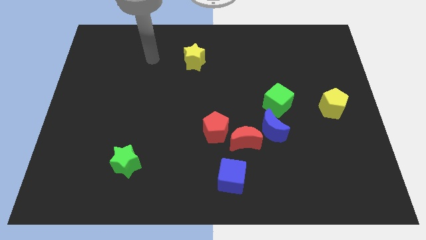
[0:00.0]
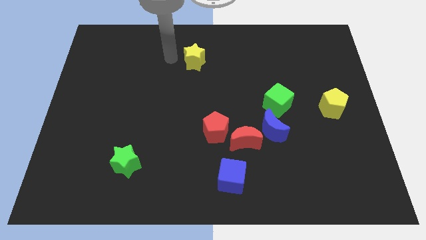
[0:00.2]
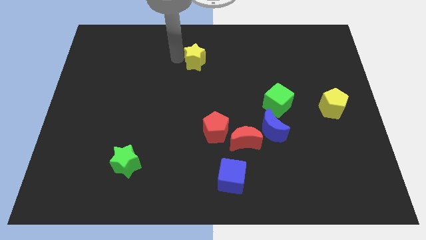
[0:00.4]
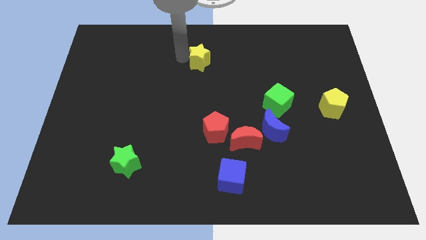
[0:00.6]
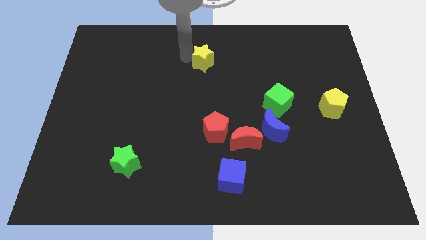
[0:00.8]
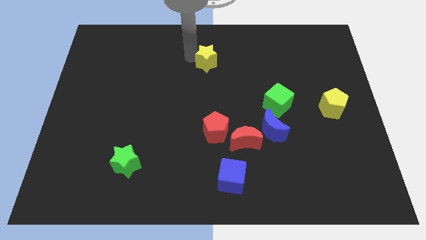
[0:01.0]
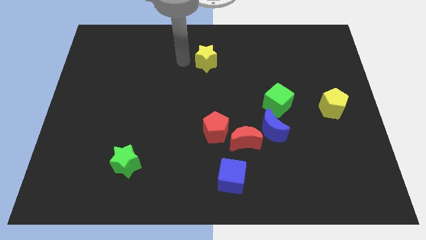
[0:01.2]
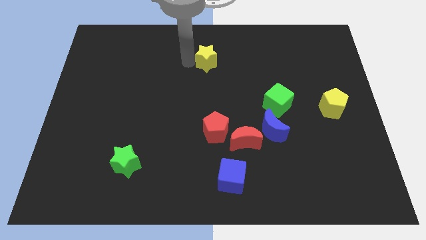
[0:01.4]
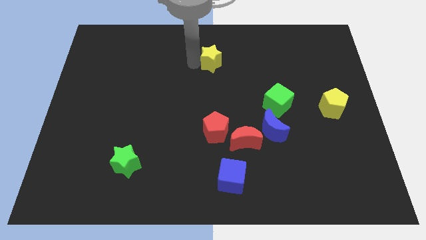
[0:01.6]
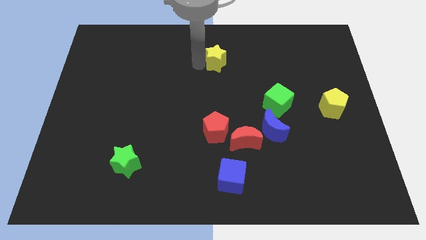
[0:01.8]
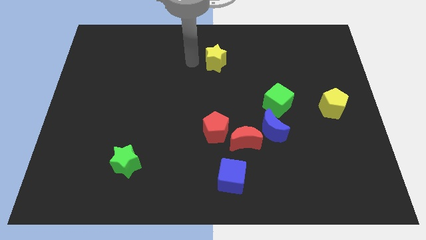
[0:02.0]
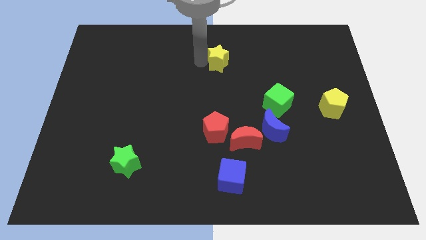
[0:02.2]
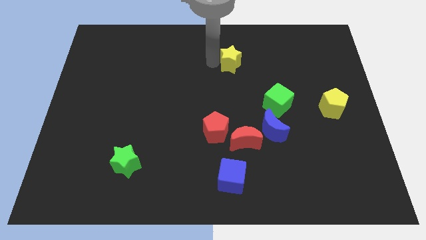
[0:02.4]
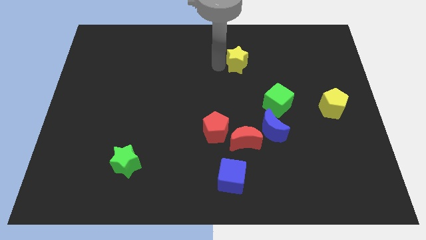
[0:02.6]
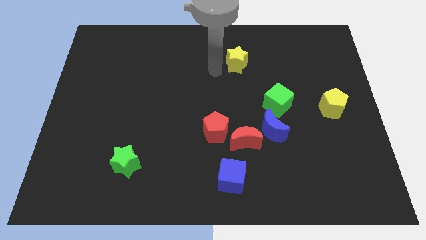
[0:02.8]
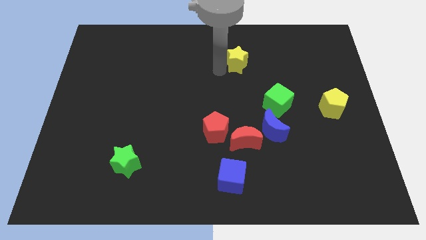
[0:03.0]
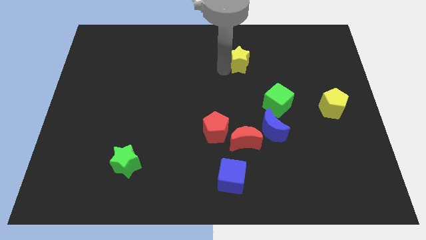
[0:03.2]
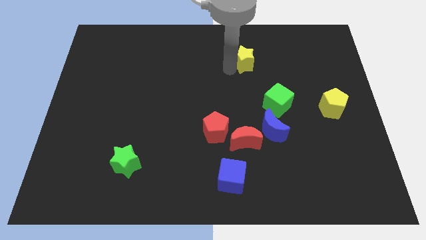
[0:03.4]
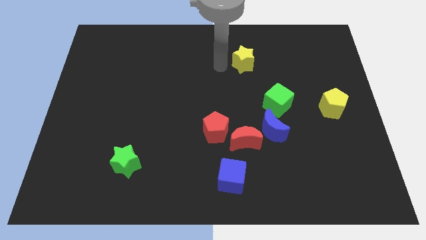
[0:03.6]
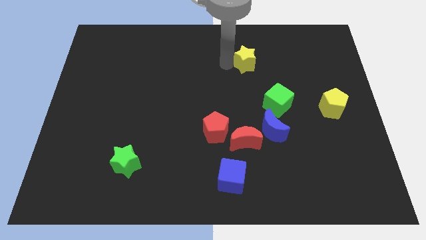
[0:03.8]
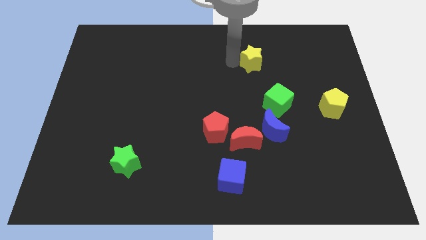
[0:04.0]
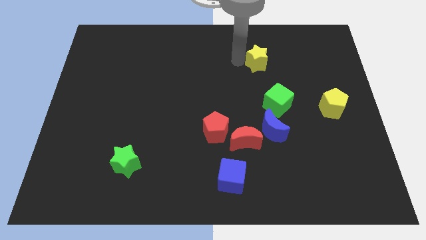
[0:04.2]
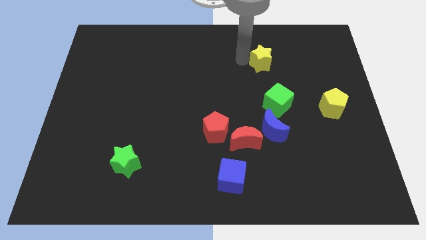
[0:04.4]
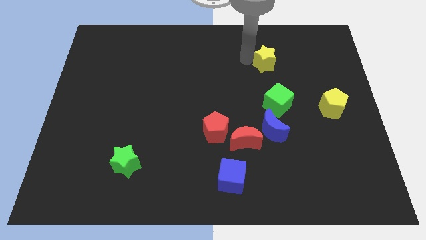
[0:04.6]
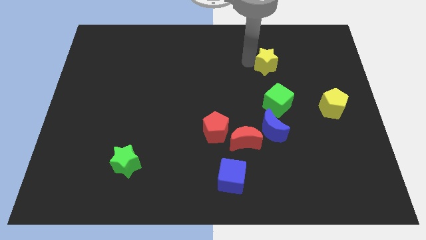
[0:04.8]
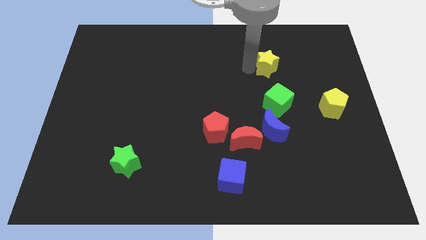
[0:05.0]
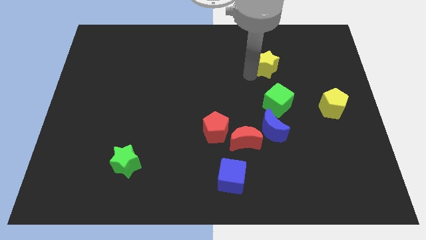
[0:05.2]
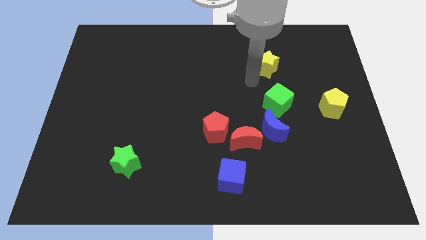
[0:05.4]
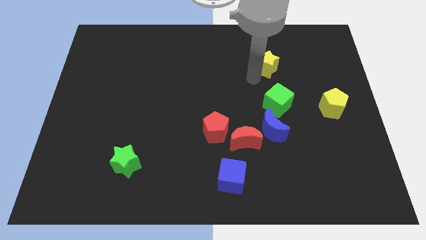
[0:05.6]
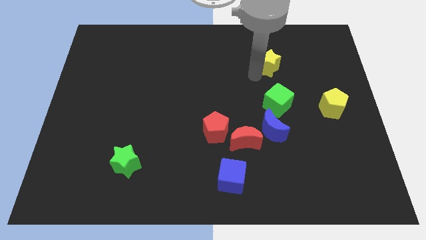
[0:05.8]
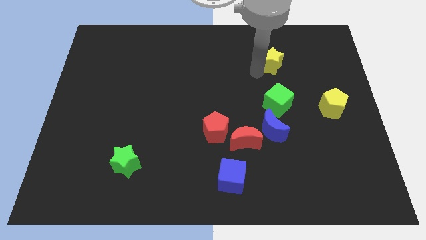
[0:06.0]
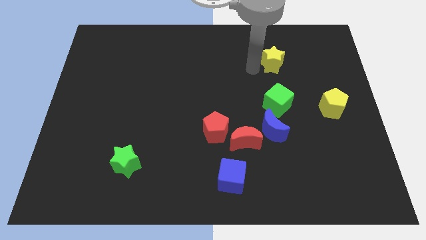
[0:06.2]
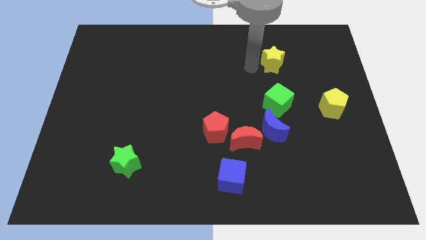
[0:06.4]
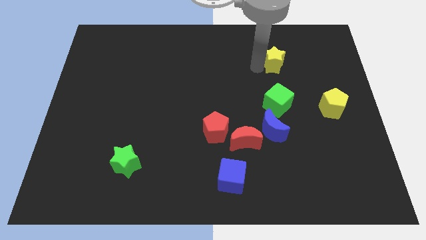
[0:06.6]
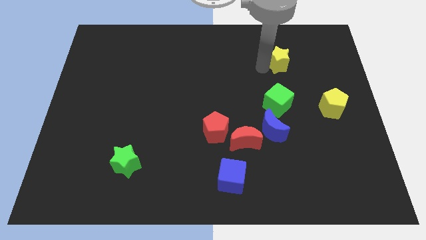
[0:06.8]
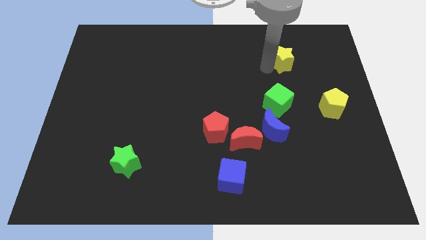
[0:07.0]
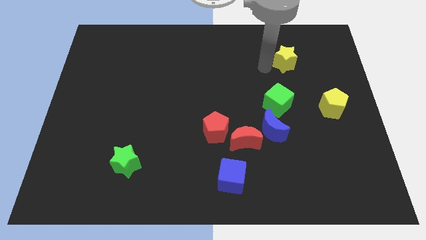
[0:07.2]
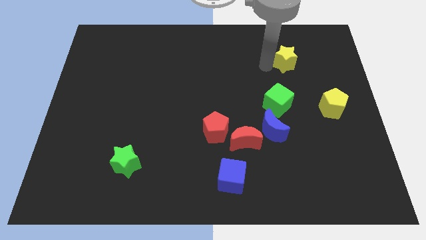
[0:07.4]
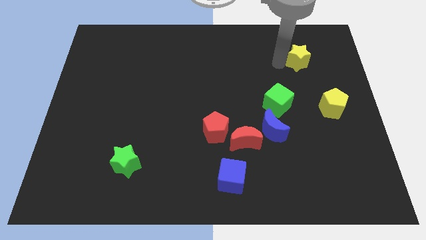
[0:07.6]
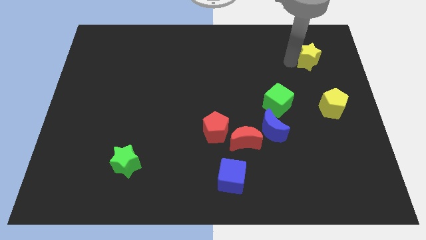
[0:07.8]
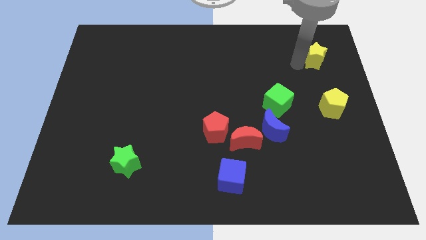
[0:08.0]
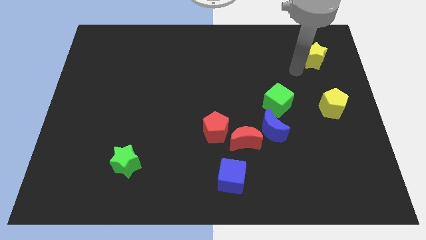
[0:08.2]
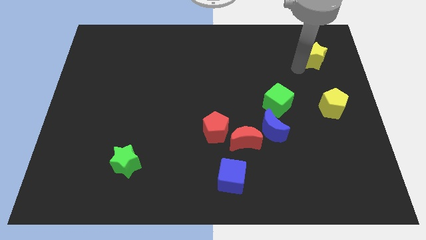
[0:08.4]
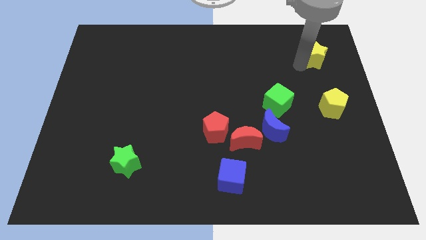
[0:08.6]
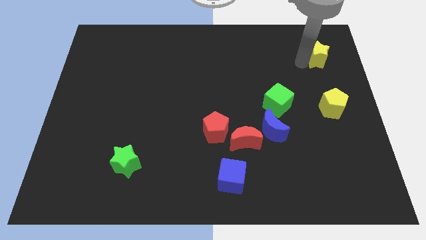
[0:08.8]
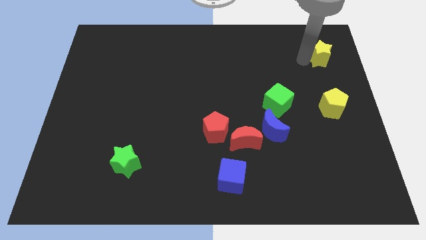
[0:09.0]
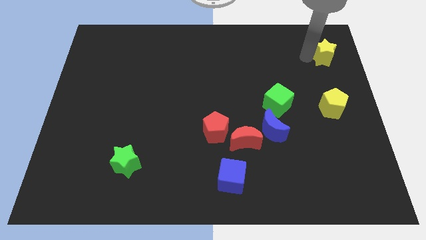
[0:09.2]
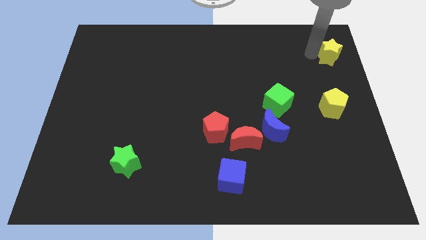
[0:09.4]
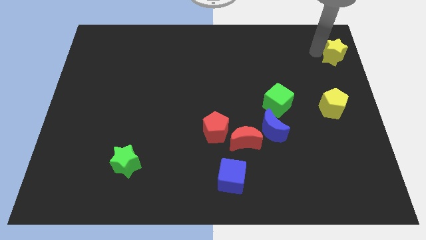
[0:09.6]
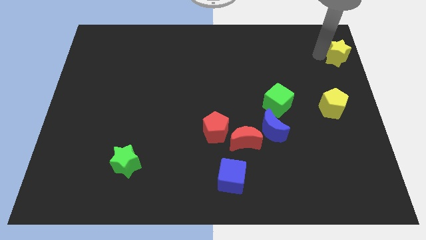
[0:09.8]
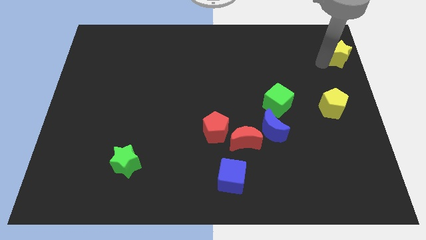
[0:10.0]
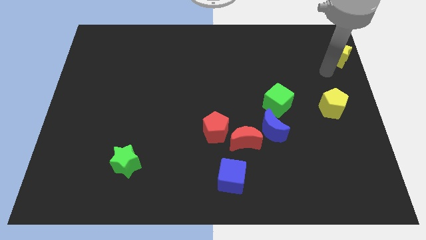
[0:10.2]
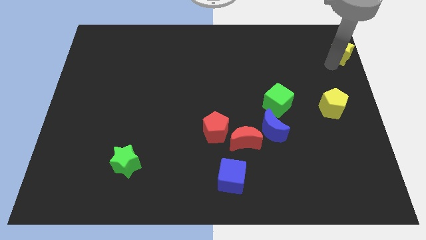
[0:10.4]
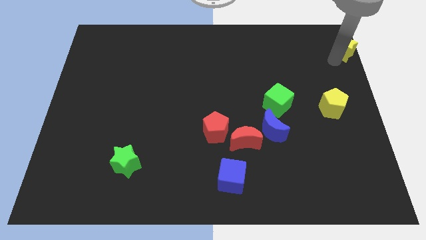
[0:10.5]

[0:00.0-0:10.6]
push the yellow star to the top right of the board

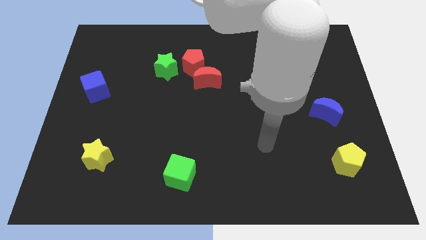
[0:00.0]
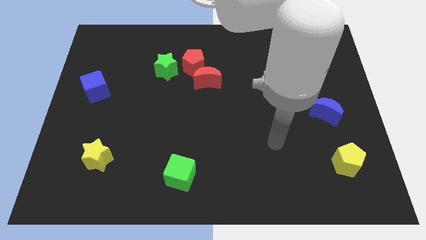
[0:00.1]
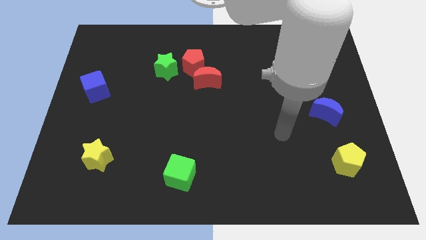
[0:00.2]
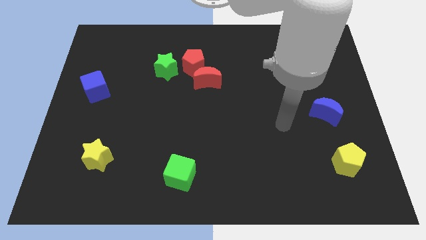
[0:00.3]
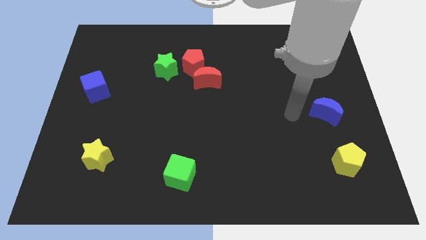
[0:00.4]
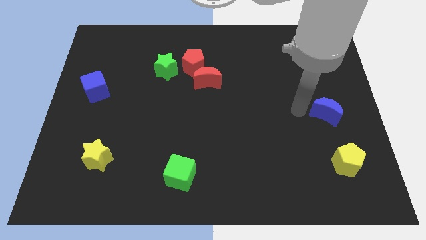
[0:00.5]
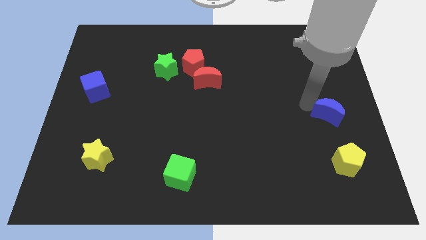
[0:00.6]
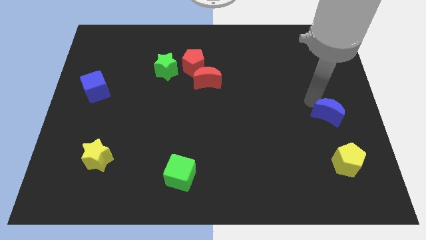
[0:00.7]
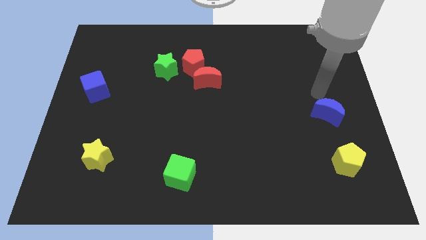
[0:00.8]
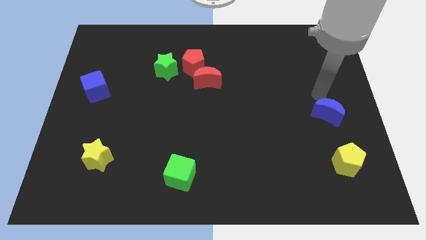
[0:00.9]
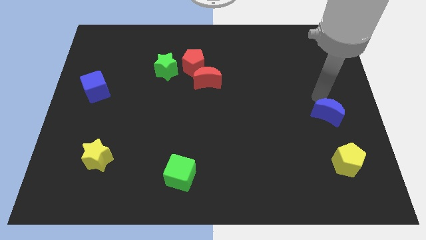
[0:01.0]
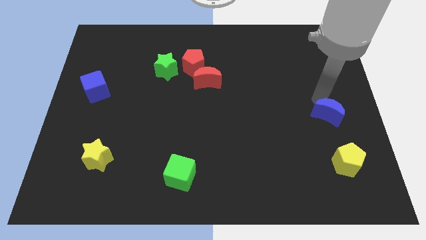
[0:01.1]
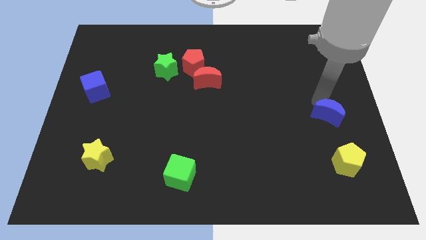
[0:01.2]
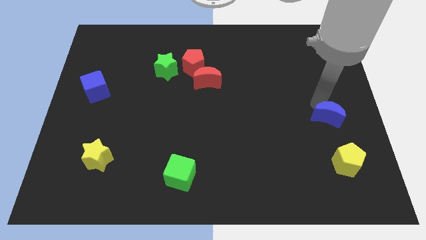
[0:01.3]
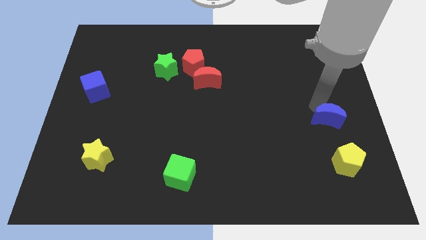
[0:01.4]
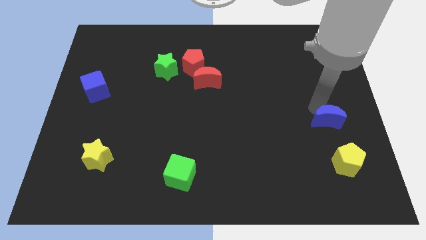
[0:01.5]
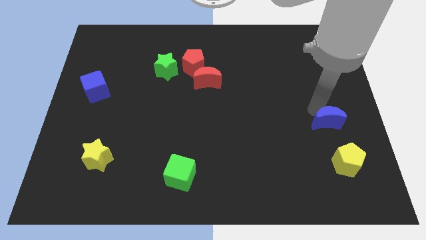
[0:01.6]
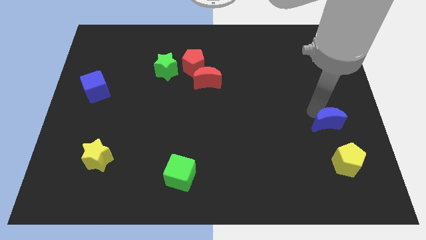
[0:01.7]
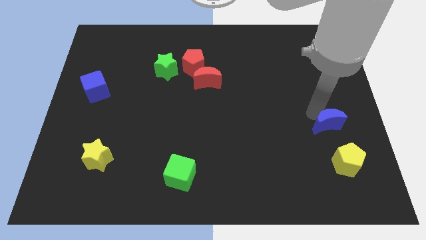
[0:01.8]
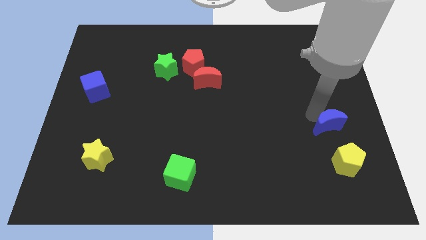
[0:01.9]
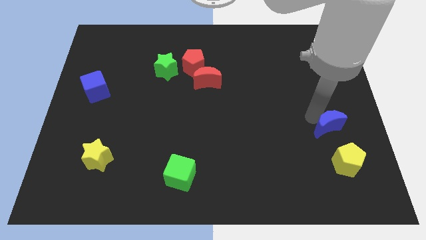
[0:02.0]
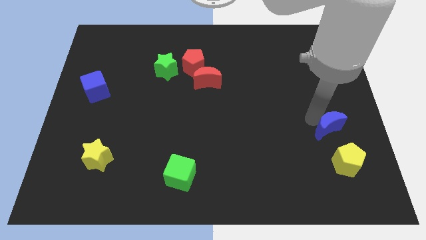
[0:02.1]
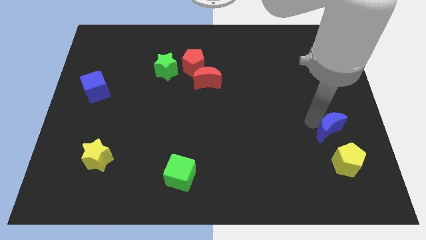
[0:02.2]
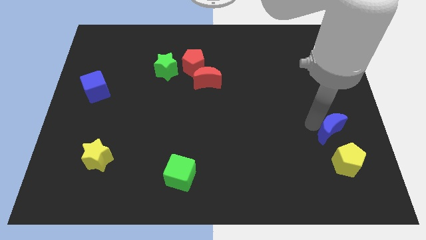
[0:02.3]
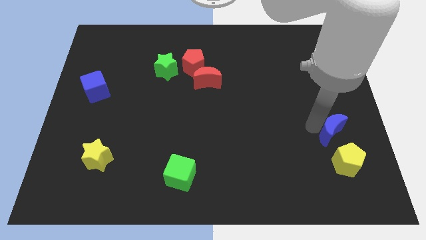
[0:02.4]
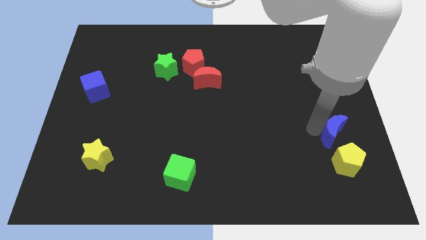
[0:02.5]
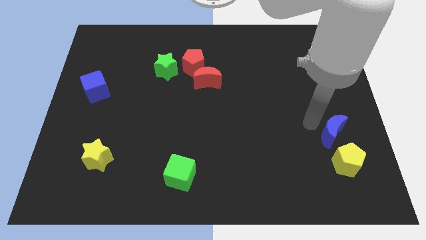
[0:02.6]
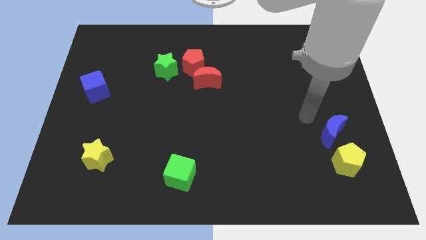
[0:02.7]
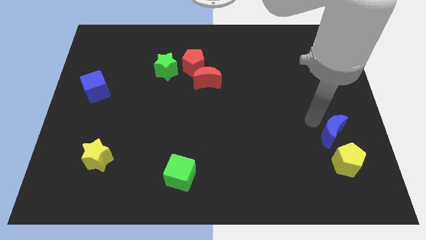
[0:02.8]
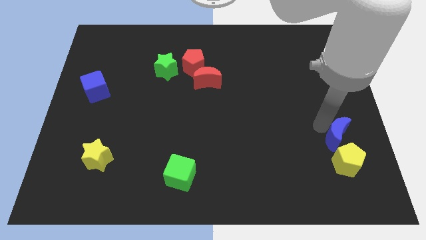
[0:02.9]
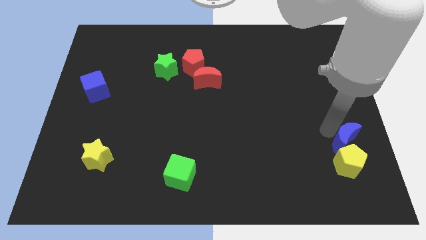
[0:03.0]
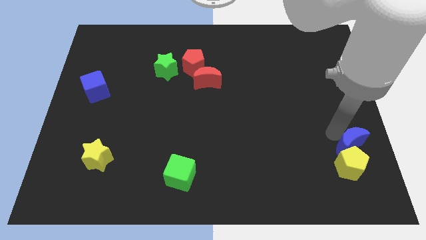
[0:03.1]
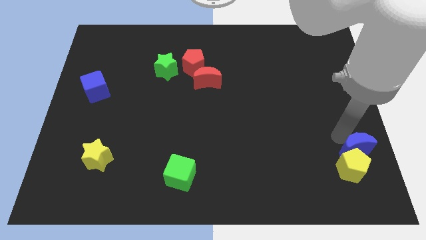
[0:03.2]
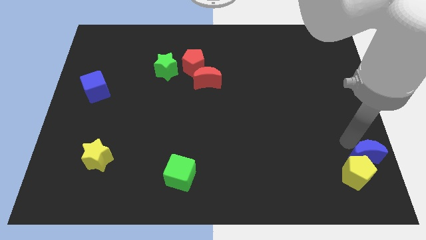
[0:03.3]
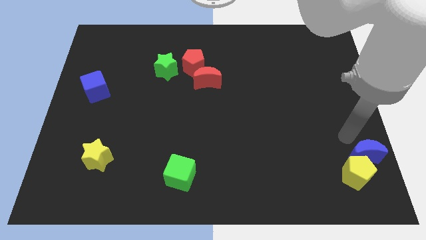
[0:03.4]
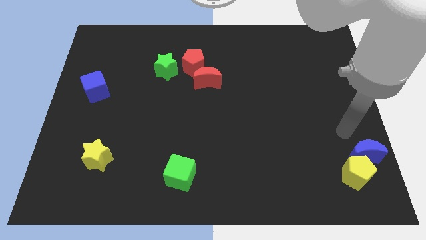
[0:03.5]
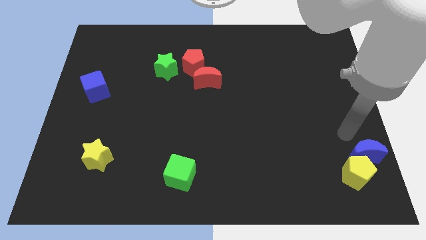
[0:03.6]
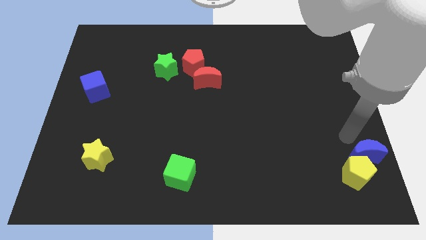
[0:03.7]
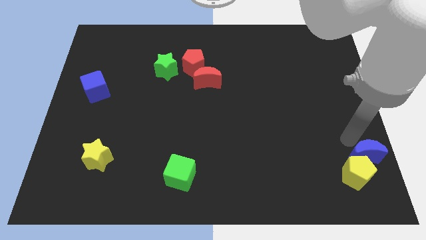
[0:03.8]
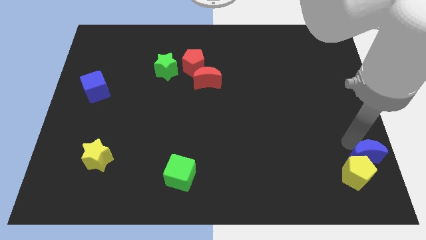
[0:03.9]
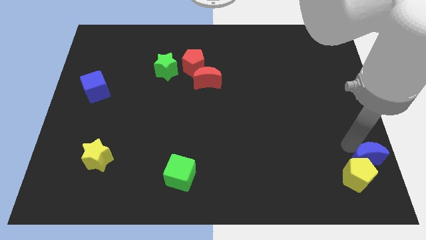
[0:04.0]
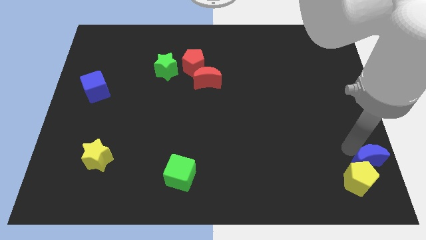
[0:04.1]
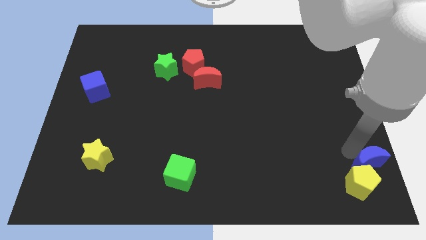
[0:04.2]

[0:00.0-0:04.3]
put the blue moon to the bottom right
